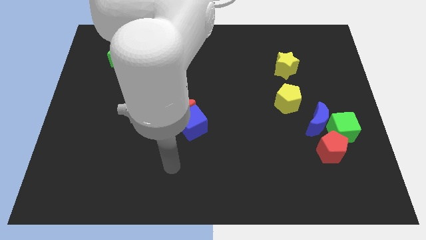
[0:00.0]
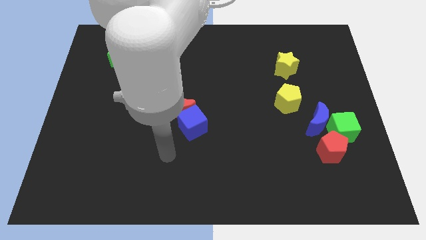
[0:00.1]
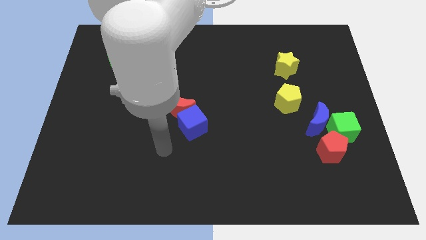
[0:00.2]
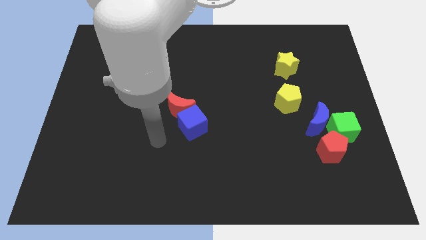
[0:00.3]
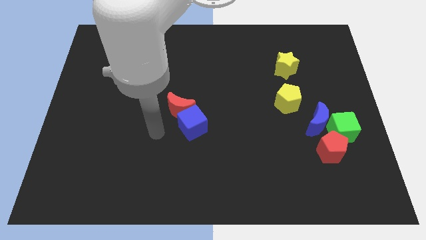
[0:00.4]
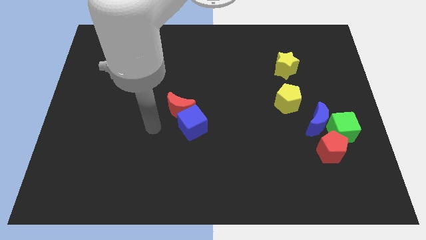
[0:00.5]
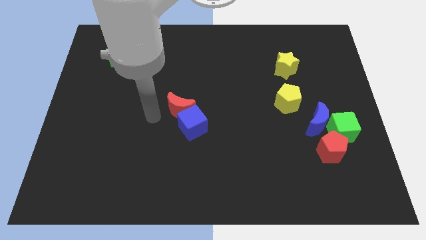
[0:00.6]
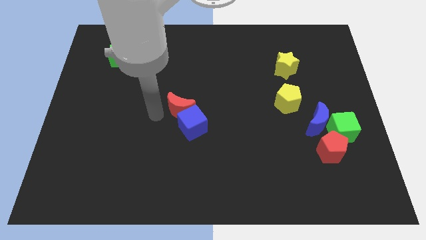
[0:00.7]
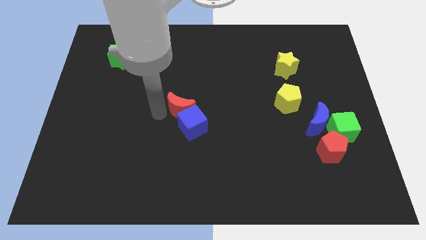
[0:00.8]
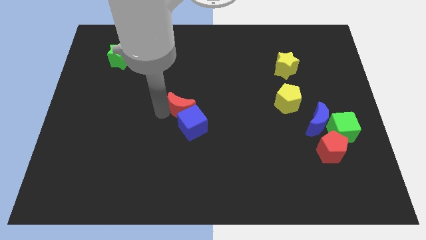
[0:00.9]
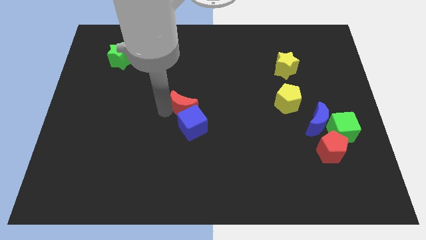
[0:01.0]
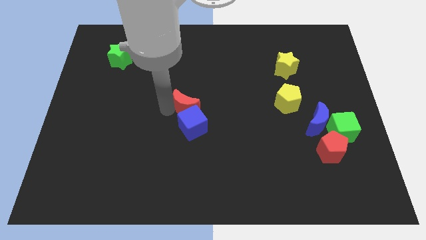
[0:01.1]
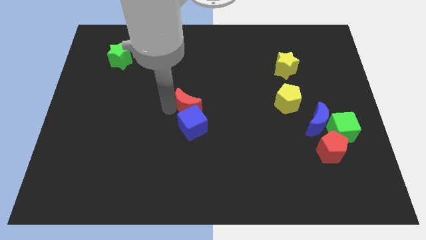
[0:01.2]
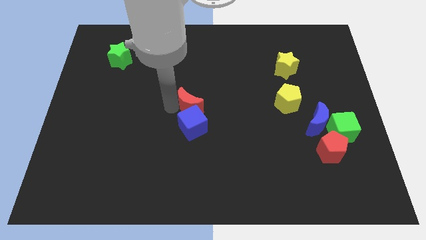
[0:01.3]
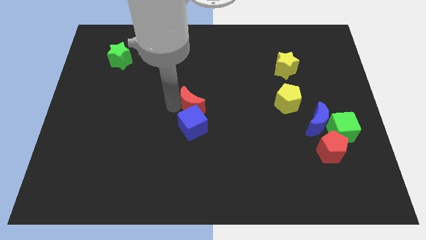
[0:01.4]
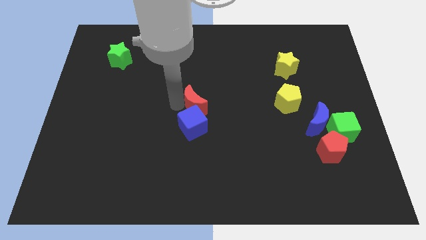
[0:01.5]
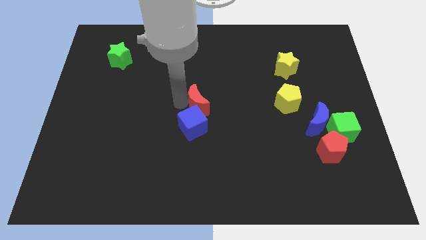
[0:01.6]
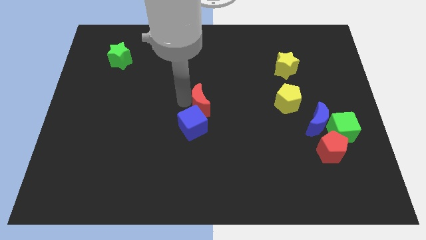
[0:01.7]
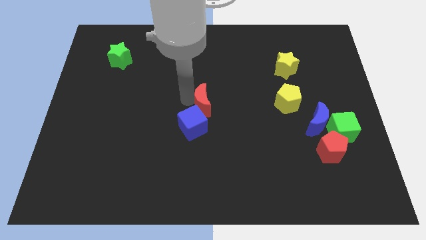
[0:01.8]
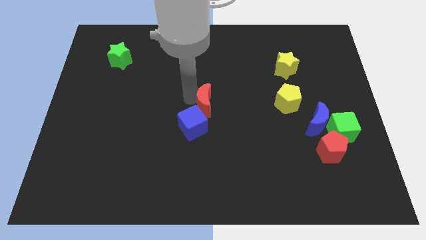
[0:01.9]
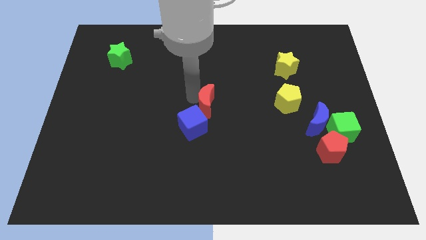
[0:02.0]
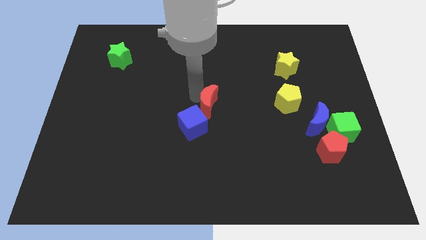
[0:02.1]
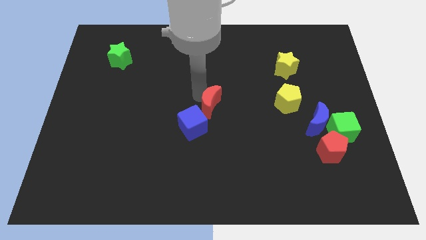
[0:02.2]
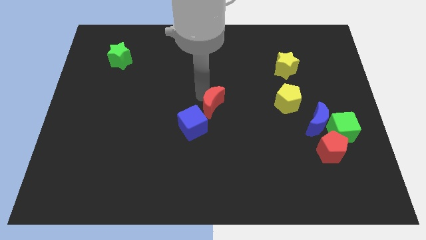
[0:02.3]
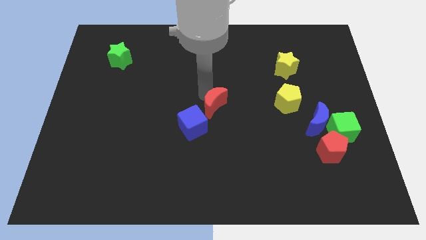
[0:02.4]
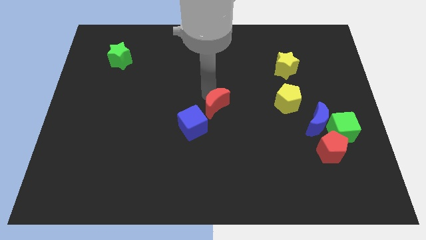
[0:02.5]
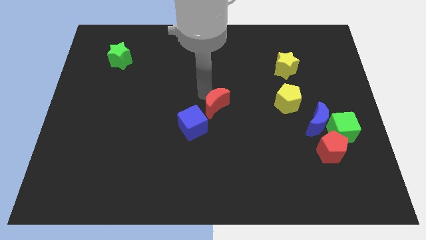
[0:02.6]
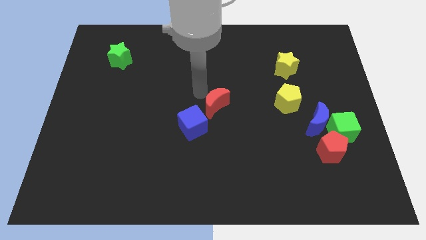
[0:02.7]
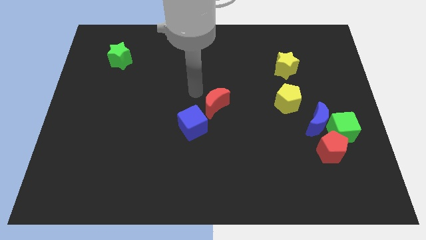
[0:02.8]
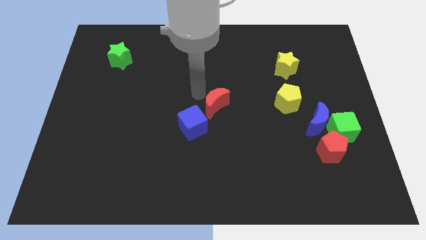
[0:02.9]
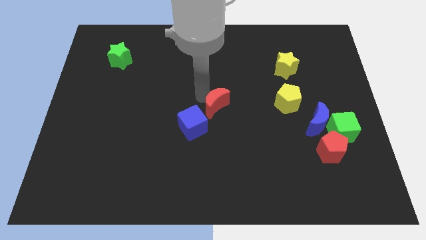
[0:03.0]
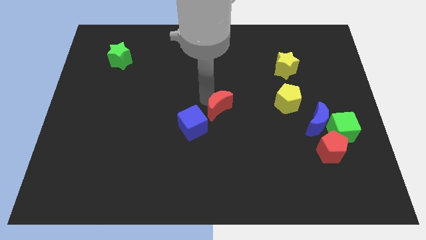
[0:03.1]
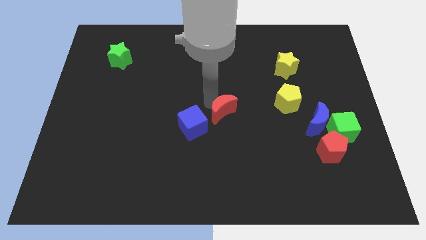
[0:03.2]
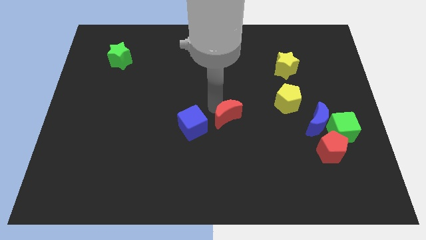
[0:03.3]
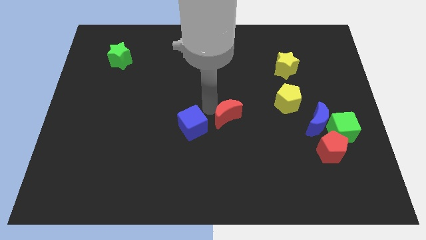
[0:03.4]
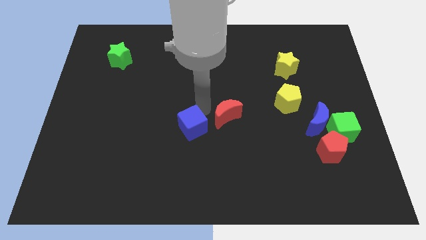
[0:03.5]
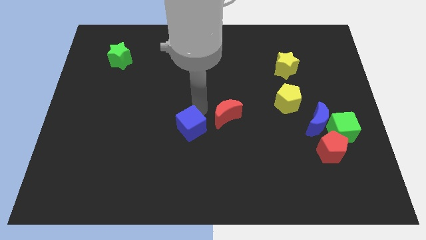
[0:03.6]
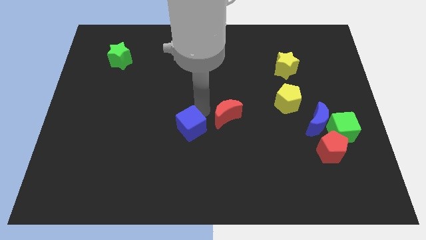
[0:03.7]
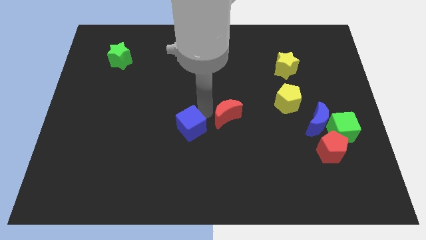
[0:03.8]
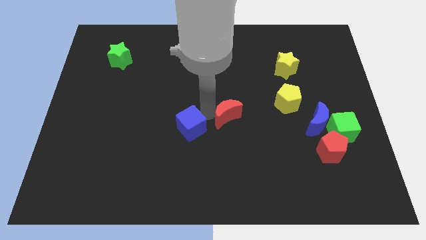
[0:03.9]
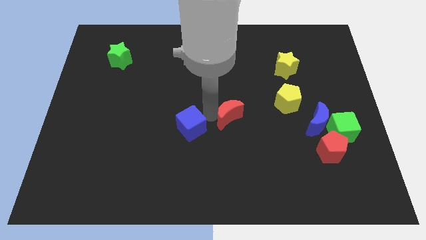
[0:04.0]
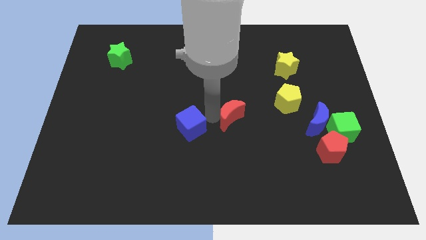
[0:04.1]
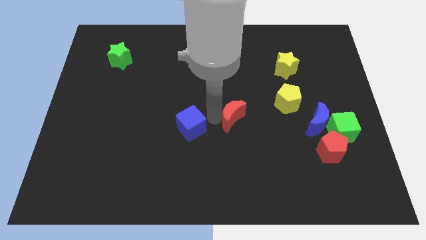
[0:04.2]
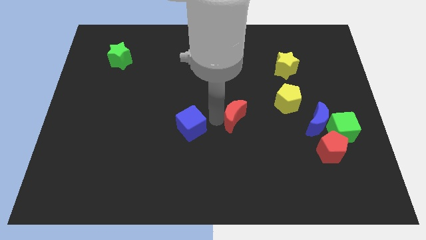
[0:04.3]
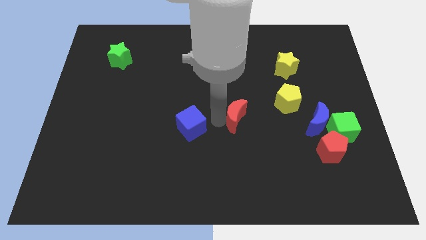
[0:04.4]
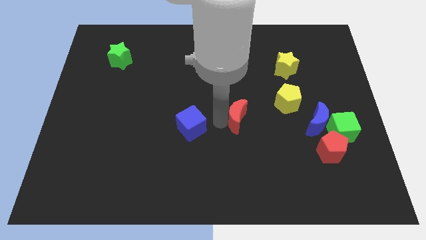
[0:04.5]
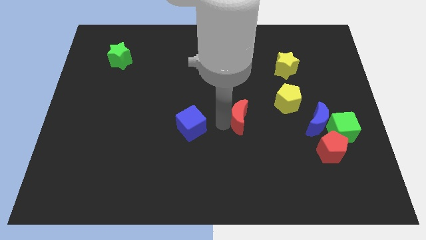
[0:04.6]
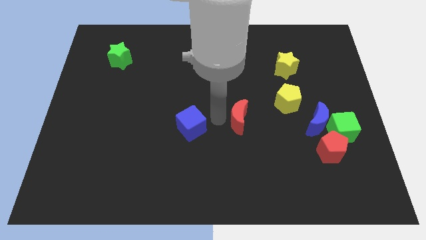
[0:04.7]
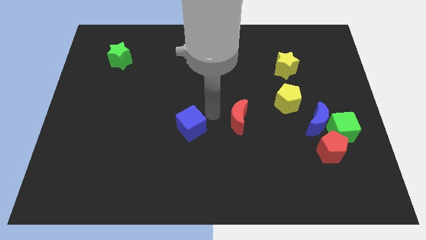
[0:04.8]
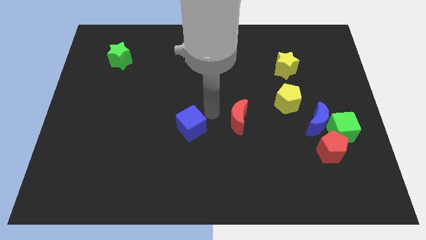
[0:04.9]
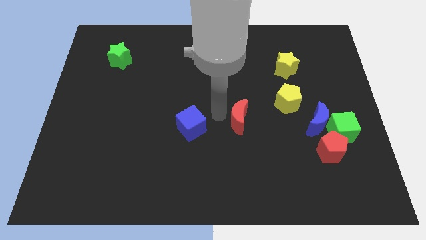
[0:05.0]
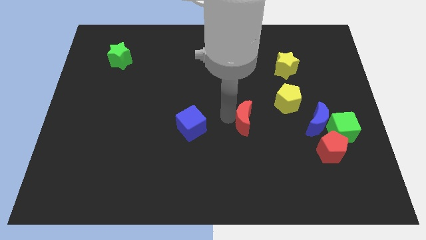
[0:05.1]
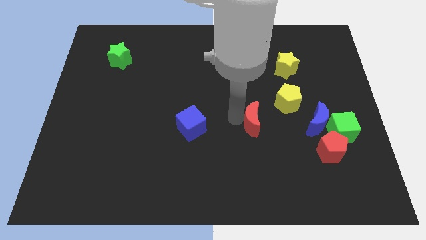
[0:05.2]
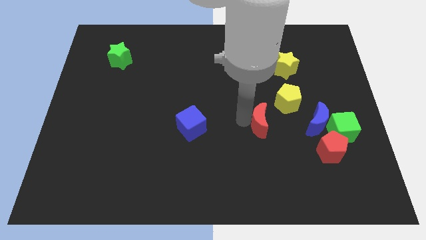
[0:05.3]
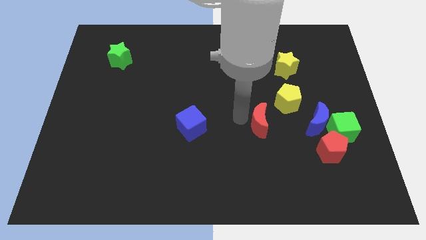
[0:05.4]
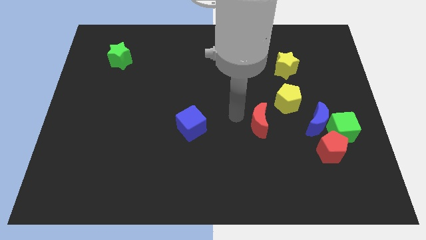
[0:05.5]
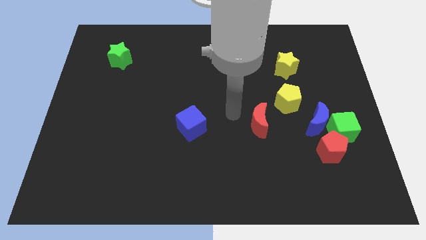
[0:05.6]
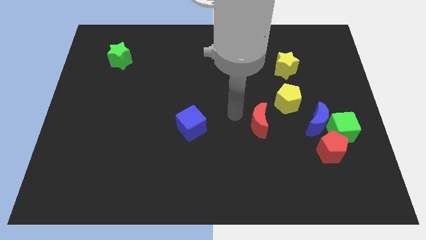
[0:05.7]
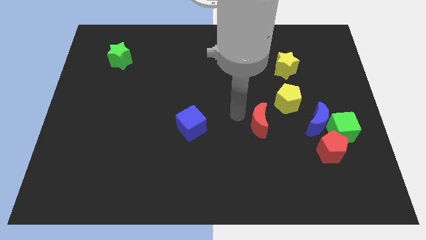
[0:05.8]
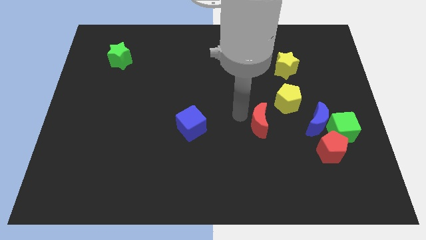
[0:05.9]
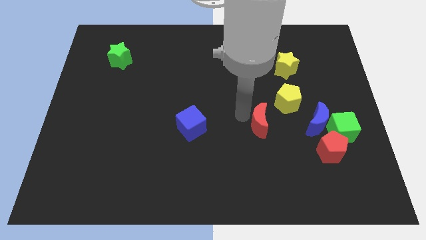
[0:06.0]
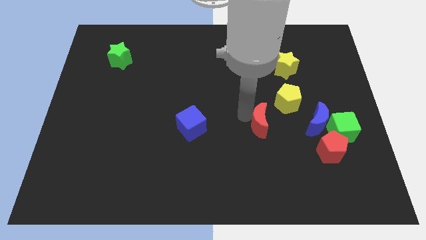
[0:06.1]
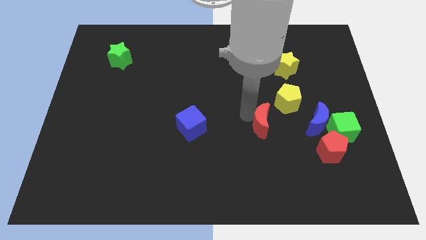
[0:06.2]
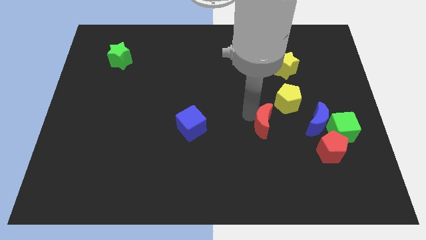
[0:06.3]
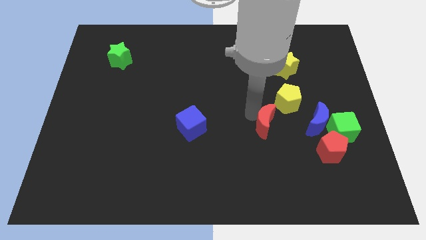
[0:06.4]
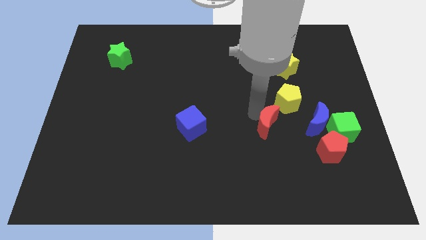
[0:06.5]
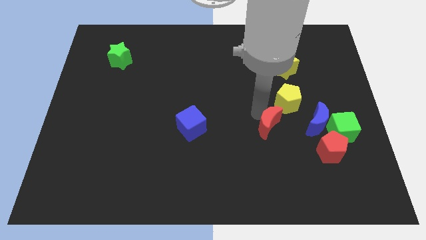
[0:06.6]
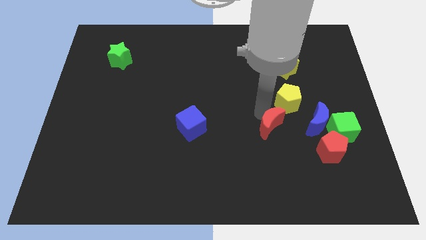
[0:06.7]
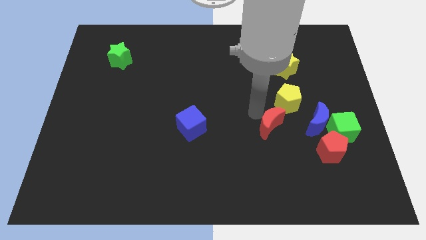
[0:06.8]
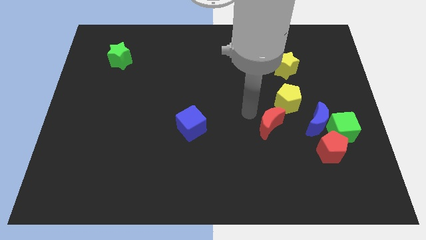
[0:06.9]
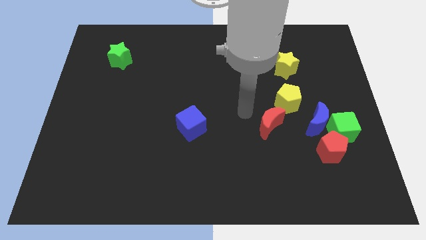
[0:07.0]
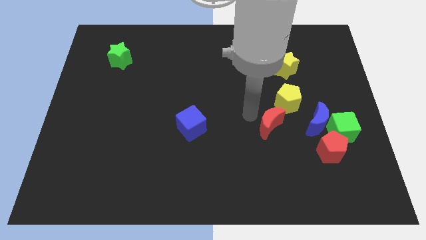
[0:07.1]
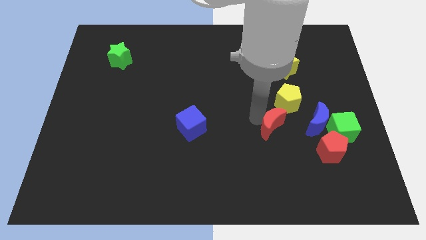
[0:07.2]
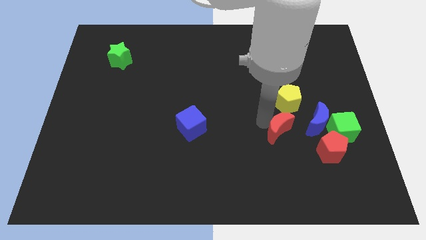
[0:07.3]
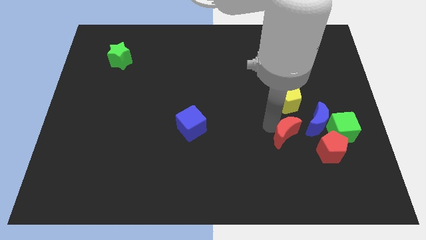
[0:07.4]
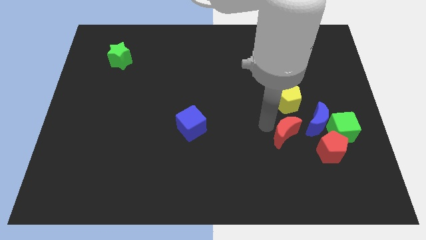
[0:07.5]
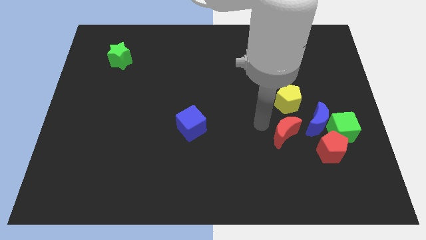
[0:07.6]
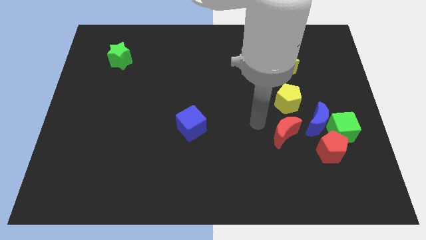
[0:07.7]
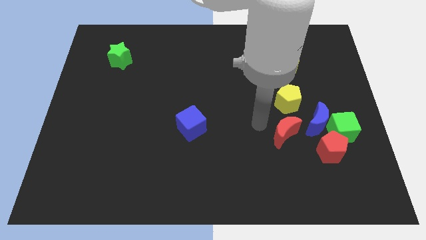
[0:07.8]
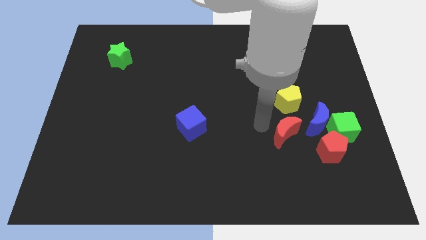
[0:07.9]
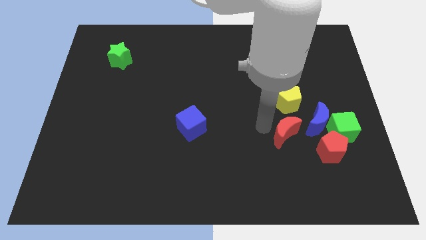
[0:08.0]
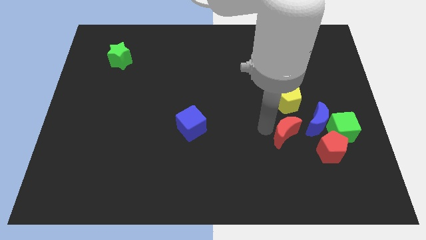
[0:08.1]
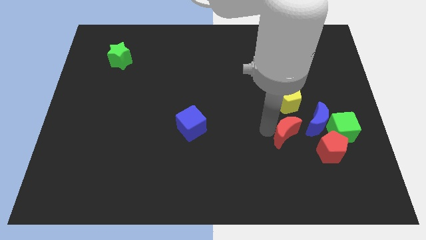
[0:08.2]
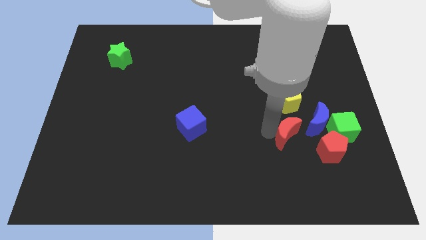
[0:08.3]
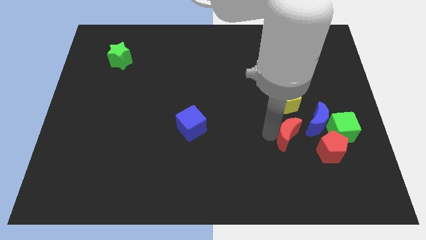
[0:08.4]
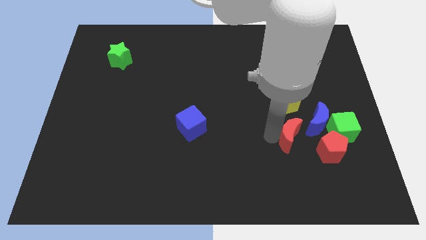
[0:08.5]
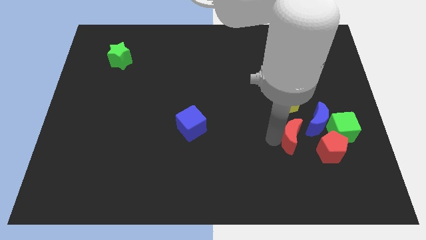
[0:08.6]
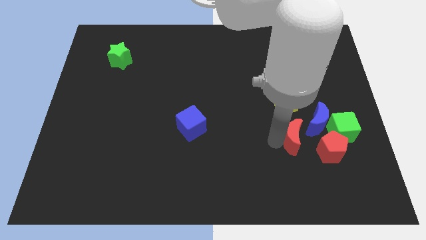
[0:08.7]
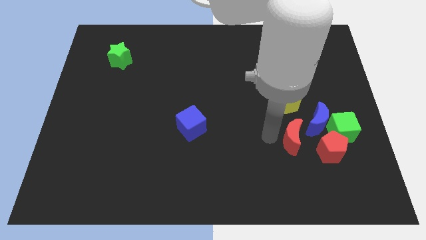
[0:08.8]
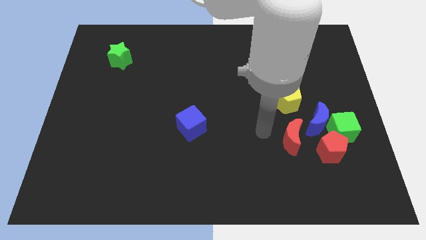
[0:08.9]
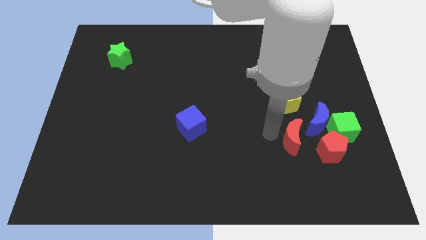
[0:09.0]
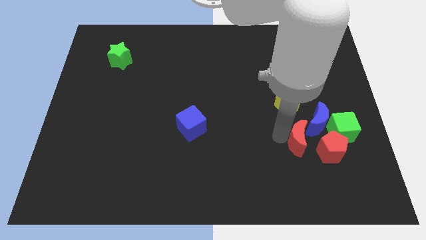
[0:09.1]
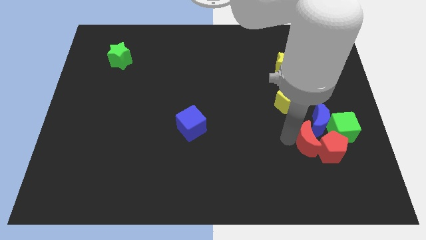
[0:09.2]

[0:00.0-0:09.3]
push the red moon towards the red pentagon
